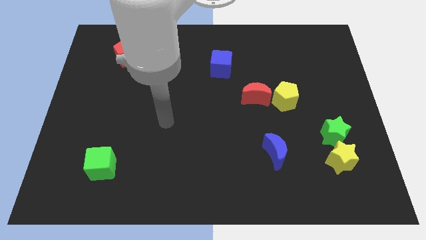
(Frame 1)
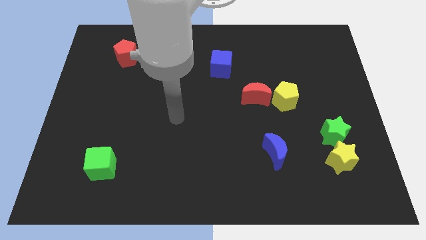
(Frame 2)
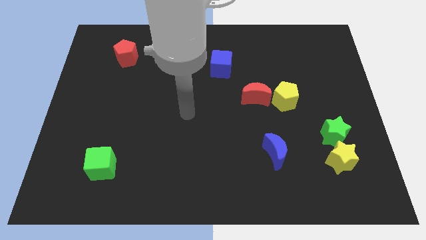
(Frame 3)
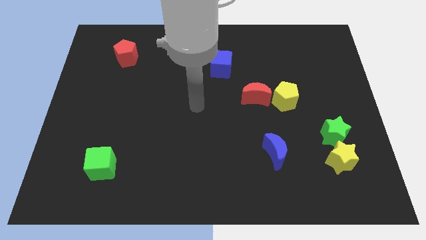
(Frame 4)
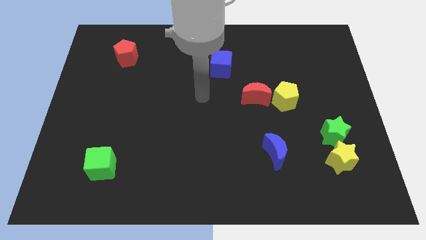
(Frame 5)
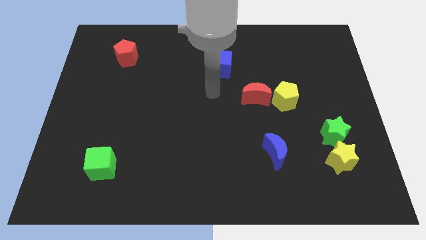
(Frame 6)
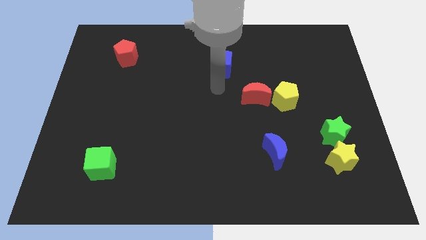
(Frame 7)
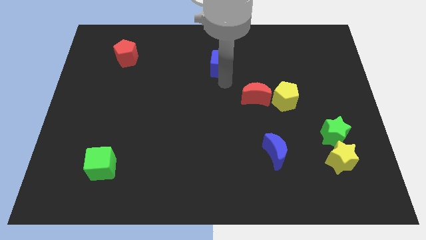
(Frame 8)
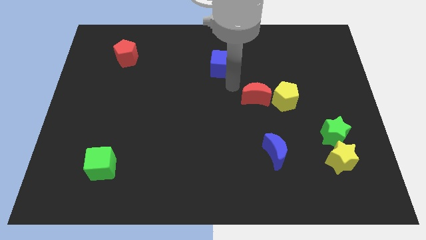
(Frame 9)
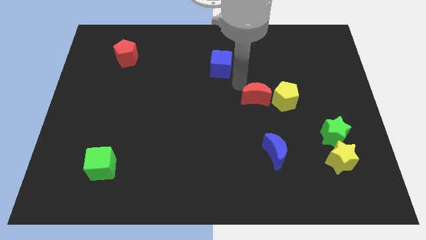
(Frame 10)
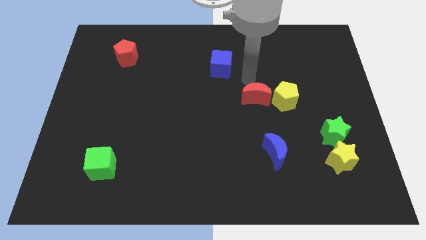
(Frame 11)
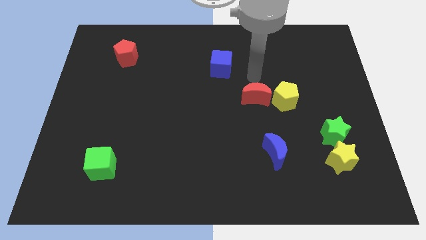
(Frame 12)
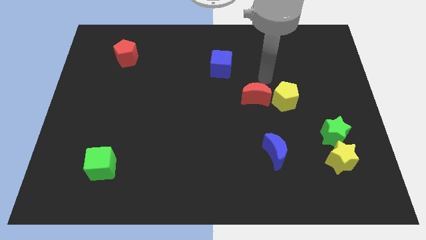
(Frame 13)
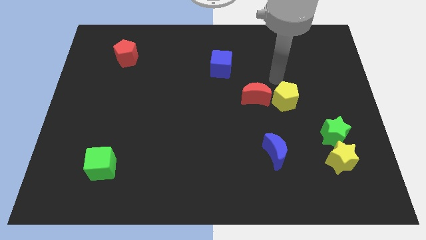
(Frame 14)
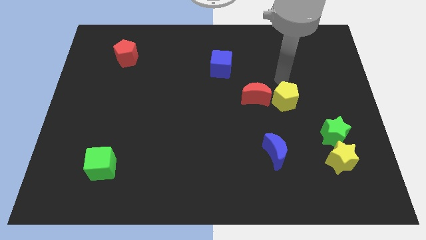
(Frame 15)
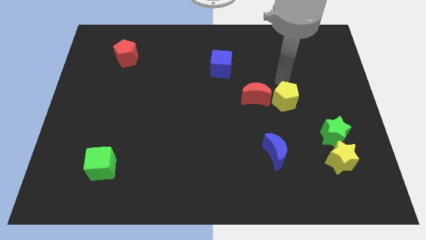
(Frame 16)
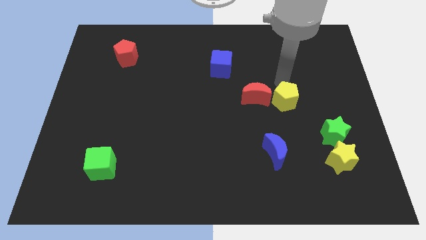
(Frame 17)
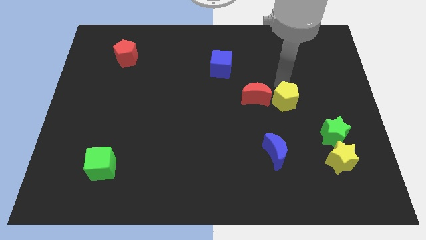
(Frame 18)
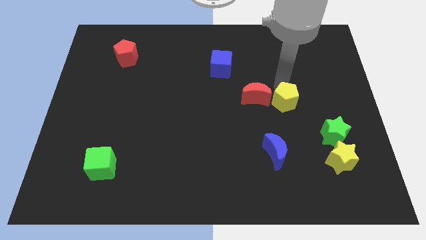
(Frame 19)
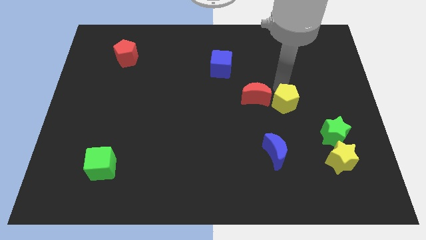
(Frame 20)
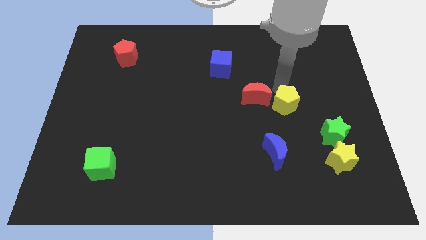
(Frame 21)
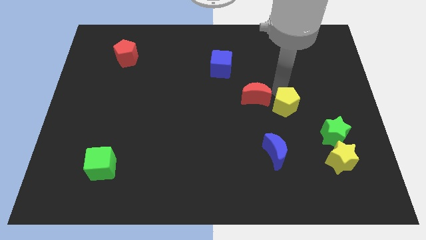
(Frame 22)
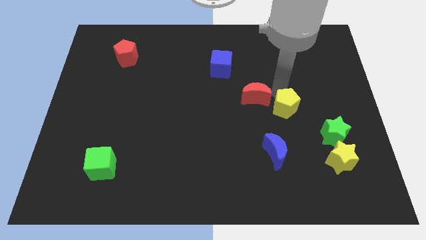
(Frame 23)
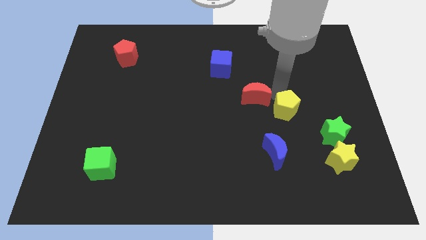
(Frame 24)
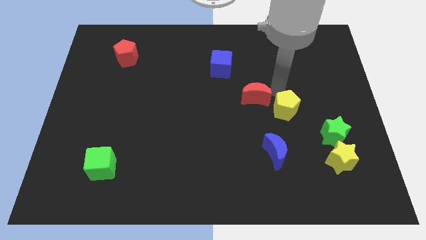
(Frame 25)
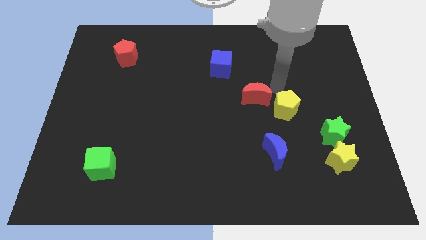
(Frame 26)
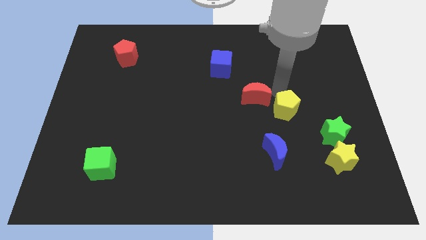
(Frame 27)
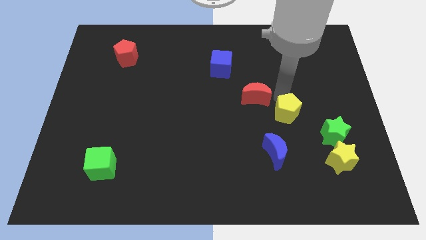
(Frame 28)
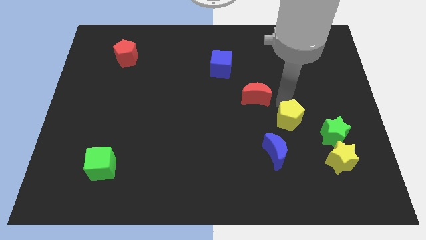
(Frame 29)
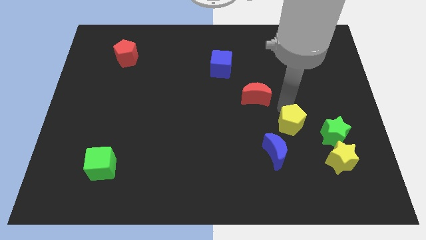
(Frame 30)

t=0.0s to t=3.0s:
slightly push the yellow pentagon downwards

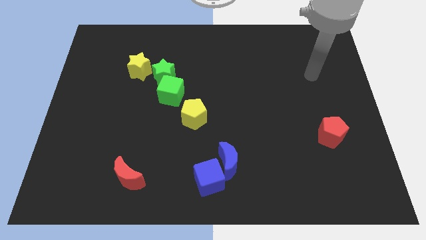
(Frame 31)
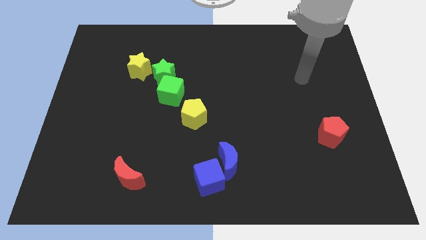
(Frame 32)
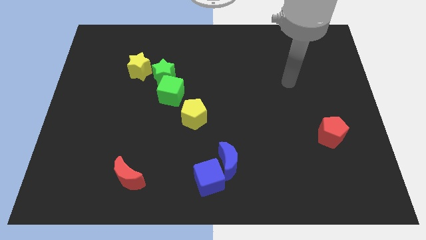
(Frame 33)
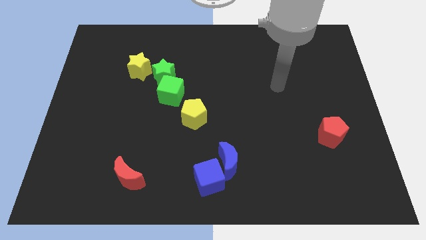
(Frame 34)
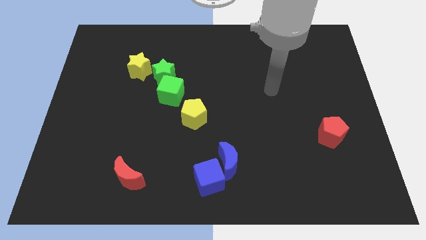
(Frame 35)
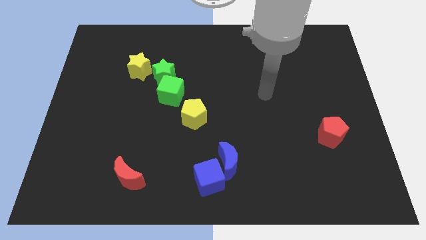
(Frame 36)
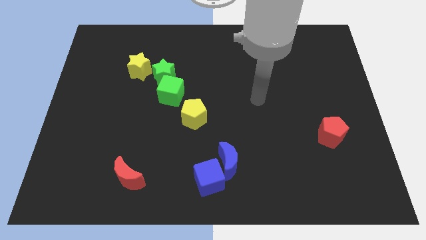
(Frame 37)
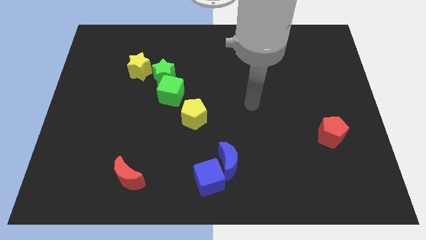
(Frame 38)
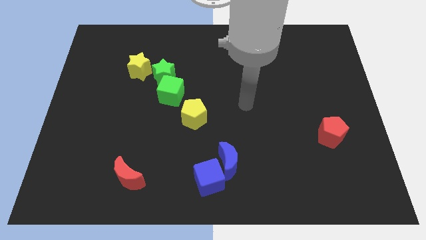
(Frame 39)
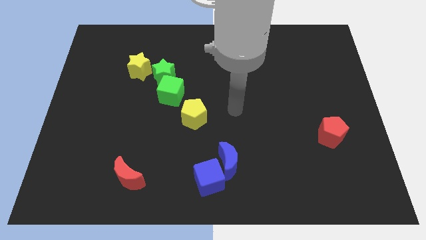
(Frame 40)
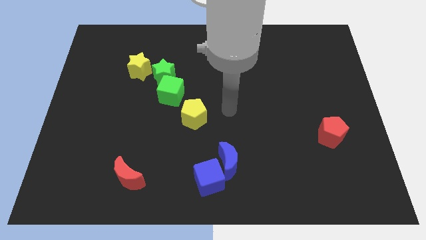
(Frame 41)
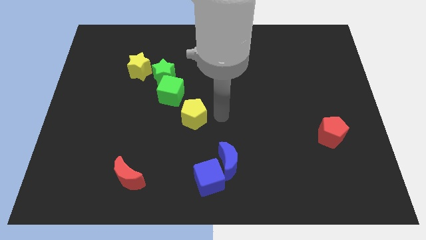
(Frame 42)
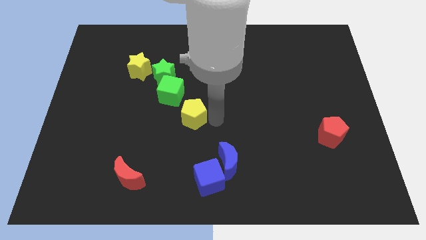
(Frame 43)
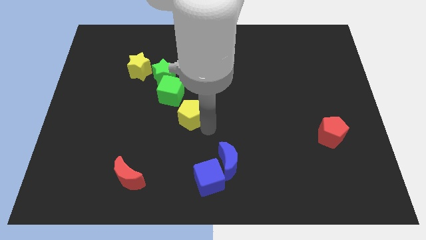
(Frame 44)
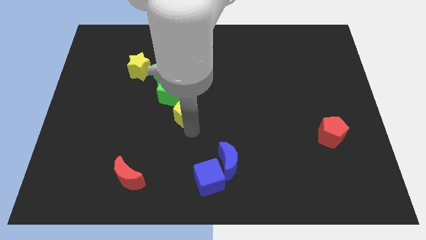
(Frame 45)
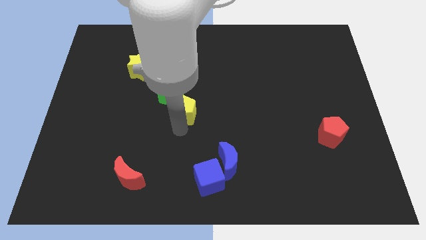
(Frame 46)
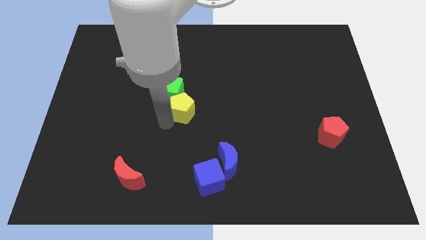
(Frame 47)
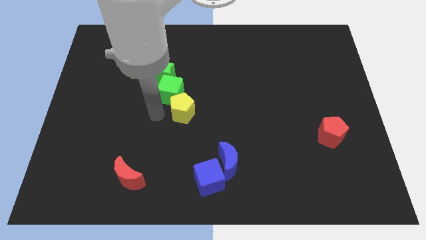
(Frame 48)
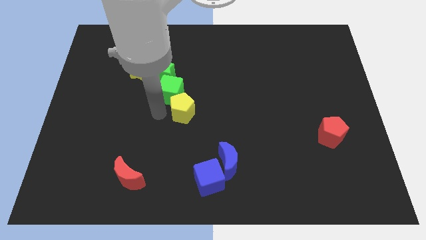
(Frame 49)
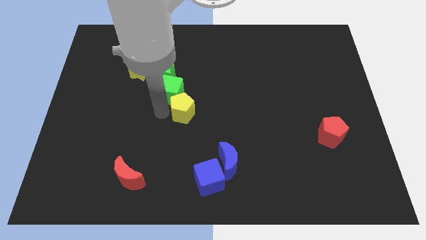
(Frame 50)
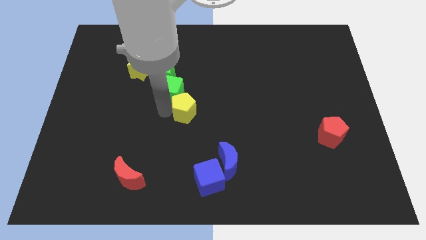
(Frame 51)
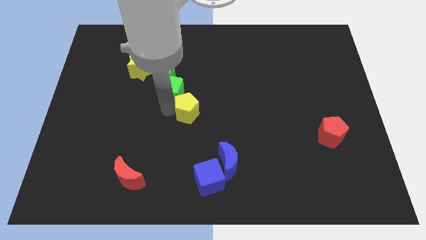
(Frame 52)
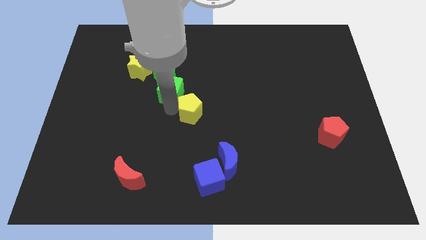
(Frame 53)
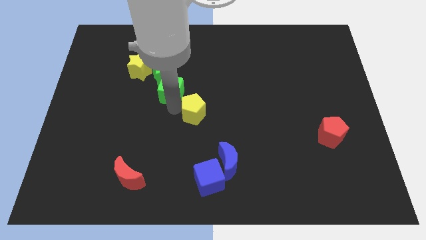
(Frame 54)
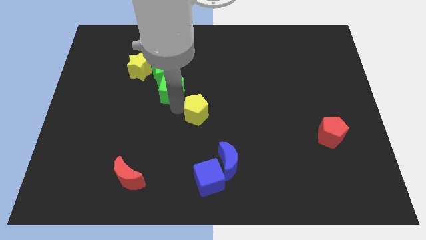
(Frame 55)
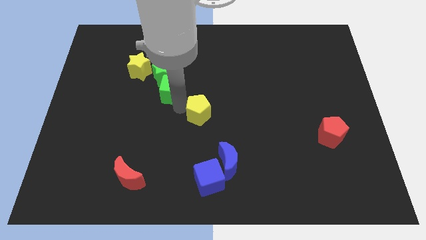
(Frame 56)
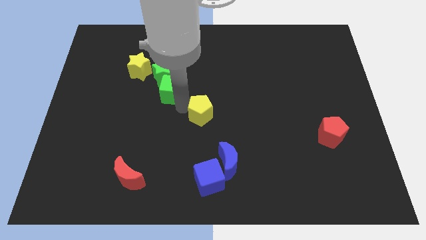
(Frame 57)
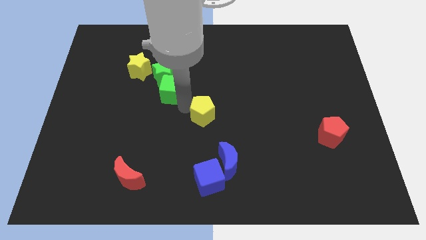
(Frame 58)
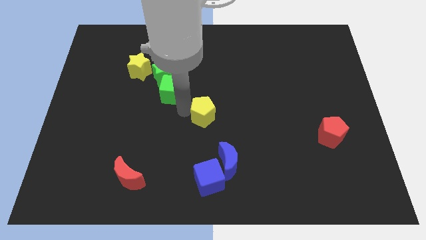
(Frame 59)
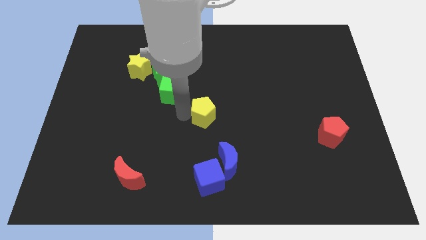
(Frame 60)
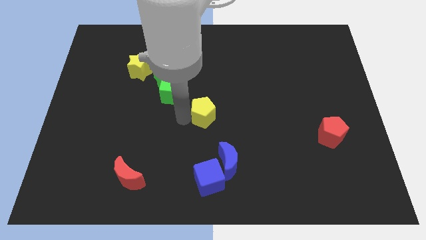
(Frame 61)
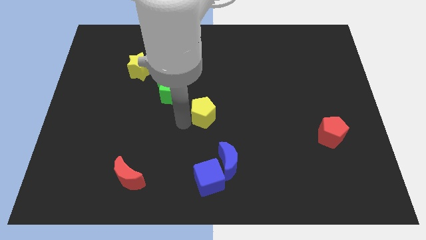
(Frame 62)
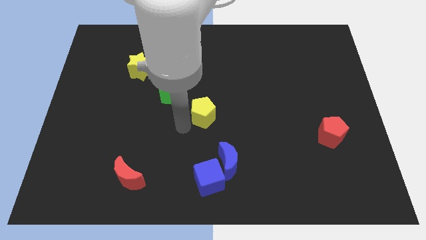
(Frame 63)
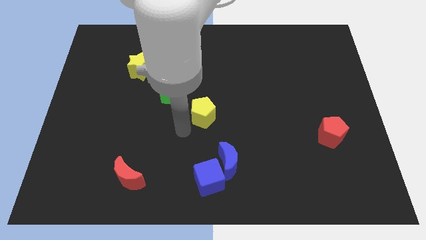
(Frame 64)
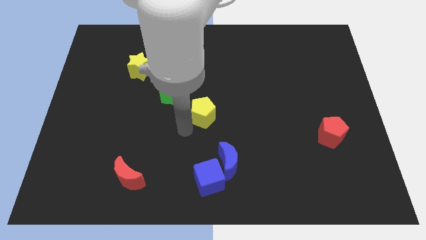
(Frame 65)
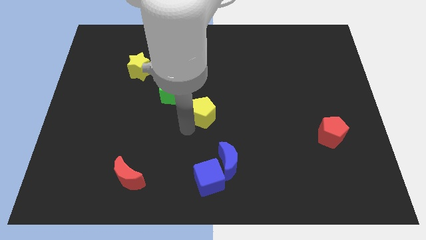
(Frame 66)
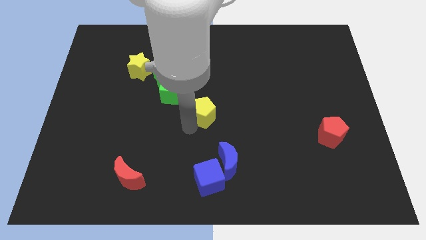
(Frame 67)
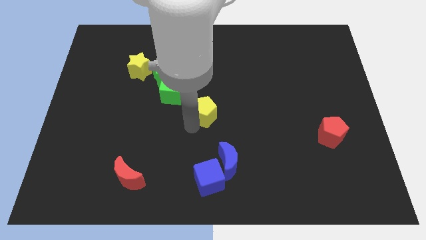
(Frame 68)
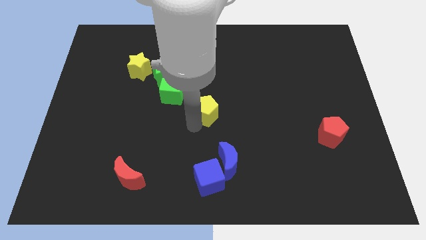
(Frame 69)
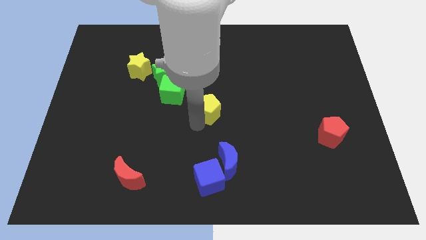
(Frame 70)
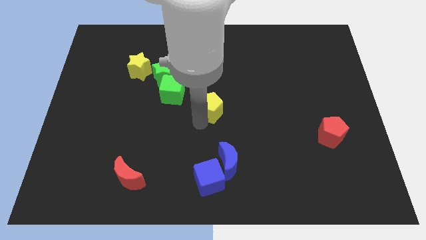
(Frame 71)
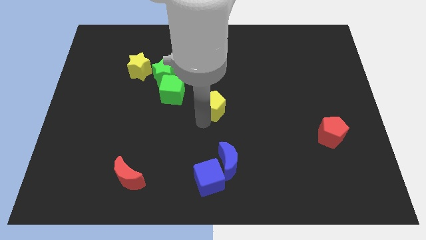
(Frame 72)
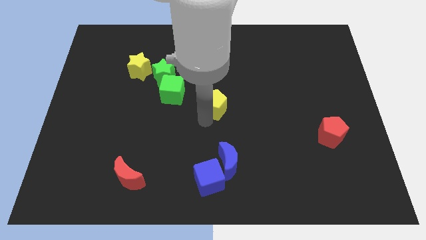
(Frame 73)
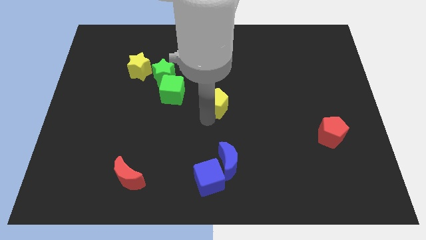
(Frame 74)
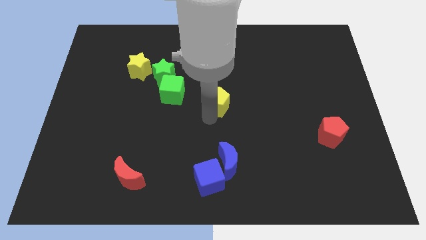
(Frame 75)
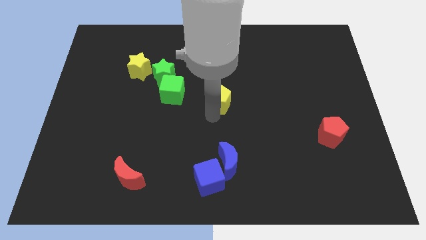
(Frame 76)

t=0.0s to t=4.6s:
move the yellow pentagon upwards and then to the right a little

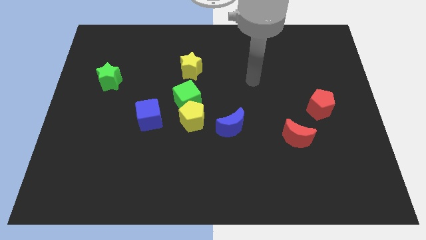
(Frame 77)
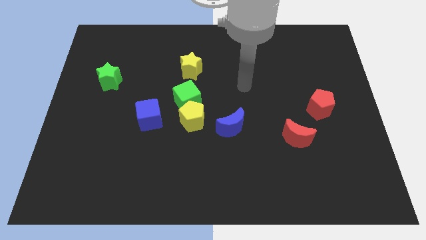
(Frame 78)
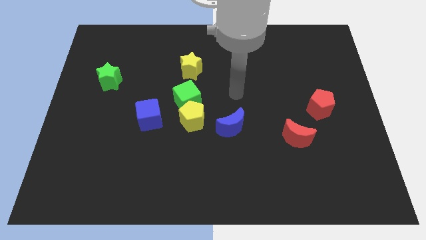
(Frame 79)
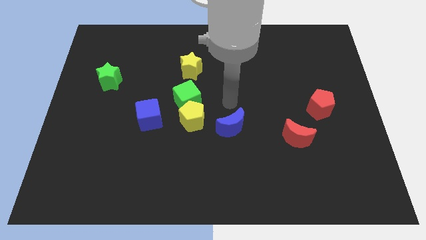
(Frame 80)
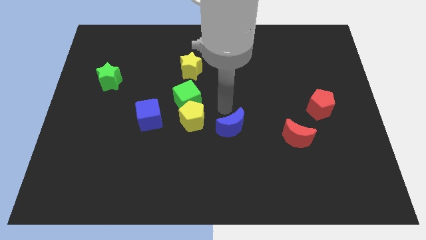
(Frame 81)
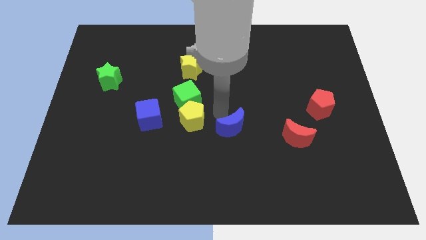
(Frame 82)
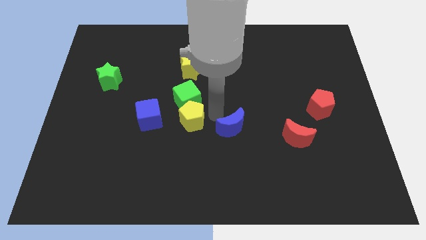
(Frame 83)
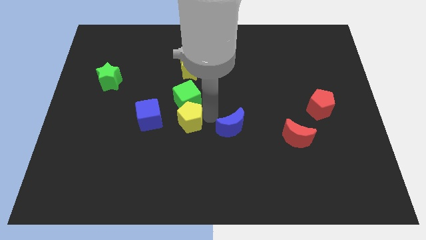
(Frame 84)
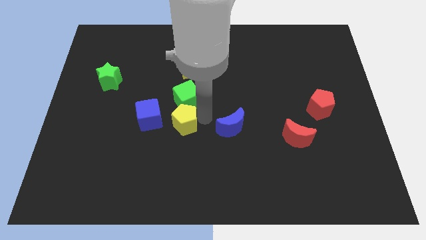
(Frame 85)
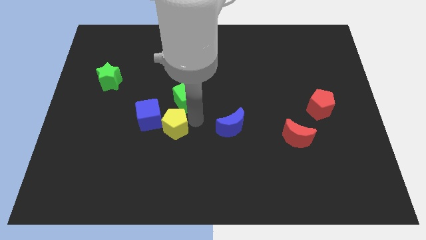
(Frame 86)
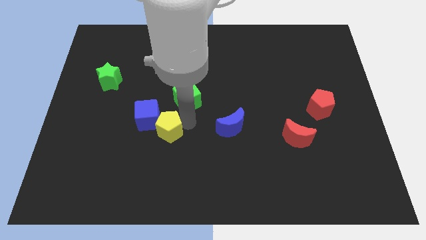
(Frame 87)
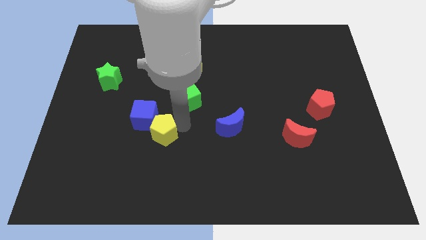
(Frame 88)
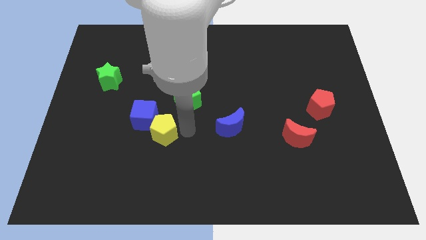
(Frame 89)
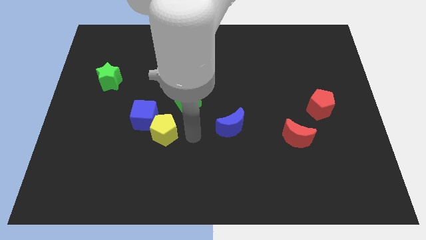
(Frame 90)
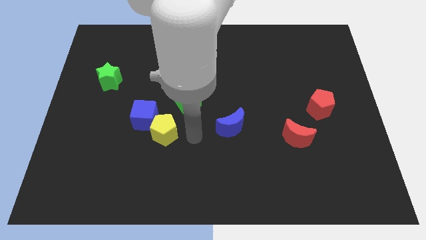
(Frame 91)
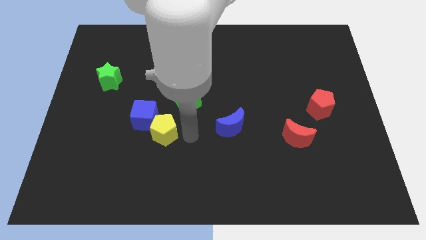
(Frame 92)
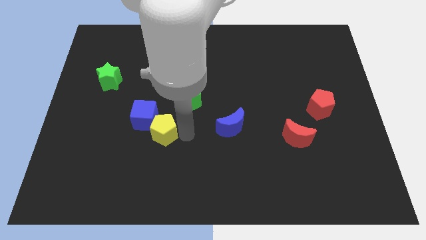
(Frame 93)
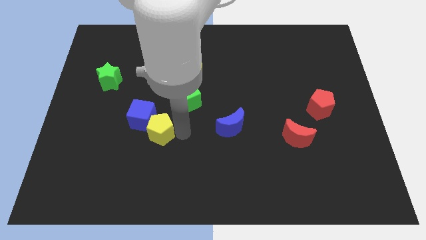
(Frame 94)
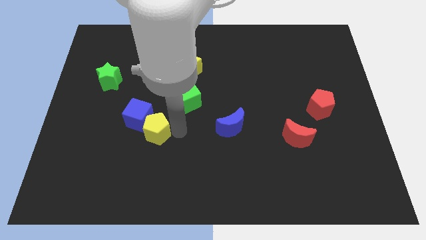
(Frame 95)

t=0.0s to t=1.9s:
move the yellow pentagon to the left a little
